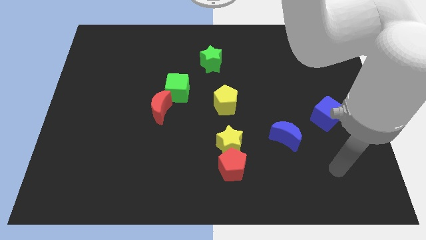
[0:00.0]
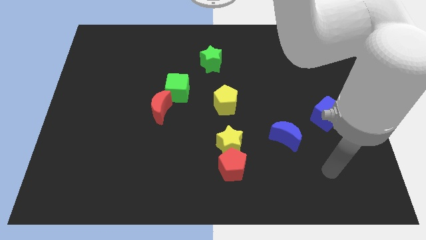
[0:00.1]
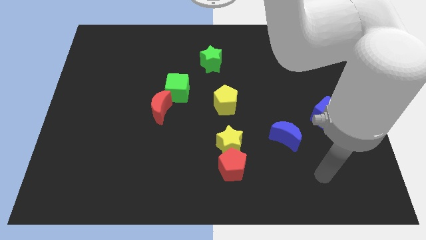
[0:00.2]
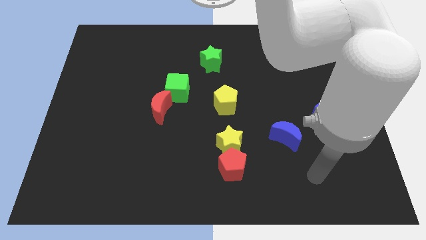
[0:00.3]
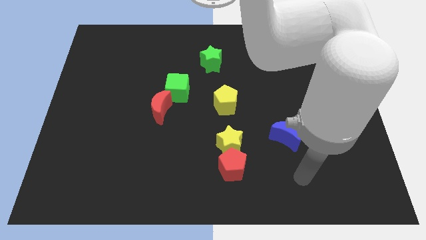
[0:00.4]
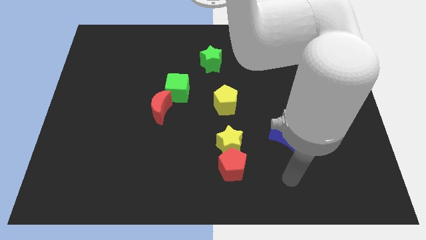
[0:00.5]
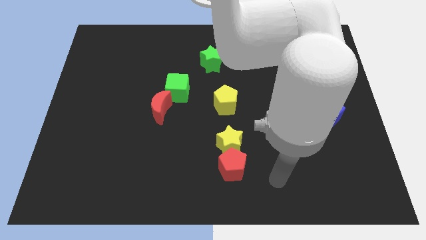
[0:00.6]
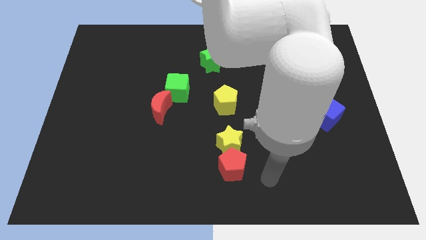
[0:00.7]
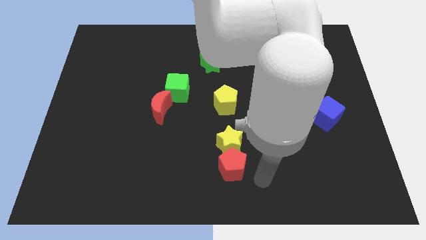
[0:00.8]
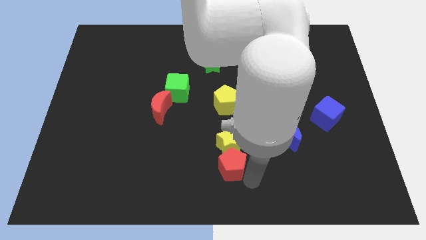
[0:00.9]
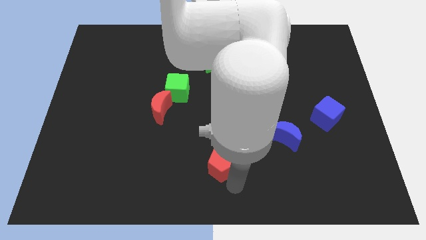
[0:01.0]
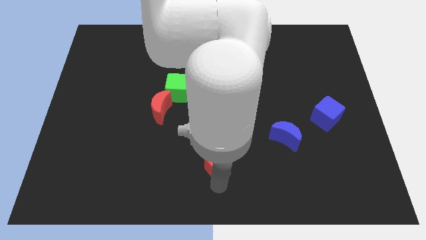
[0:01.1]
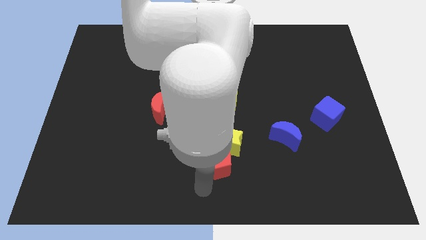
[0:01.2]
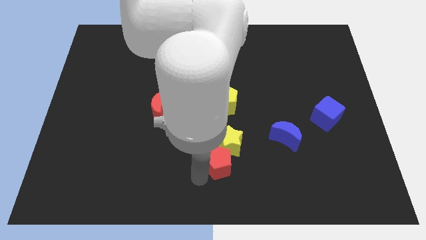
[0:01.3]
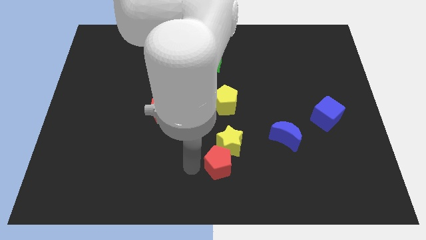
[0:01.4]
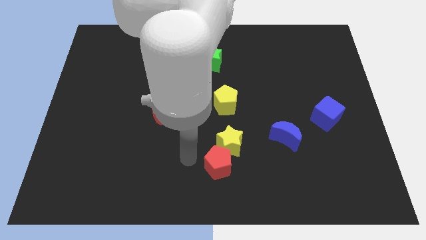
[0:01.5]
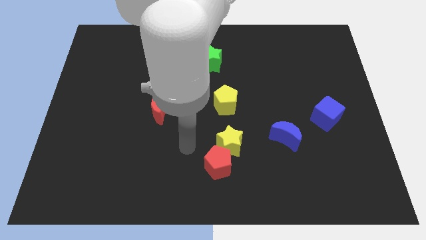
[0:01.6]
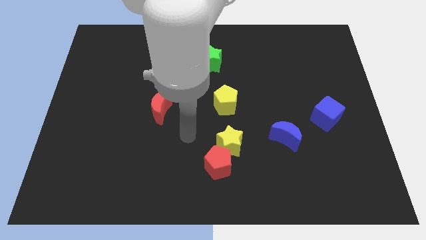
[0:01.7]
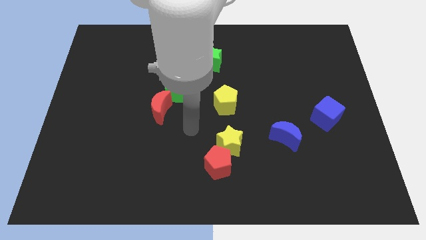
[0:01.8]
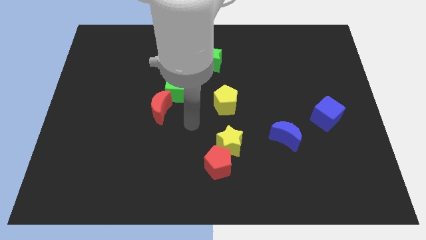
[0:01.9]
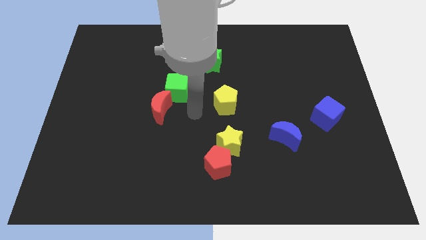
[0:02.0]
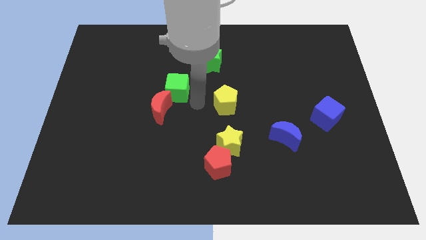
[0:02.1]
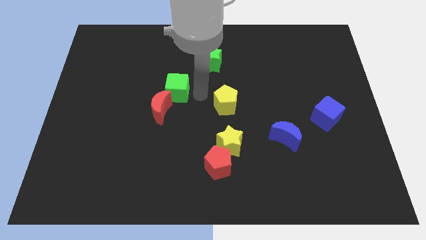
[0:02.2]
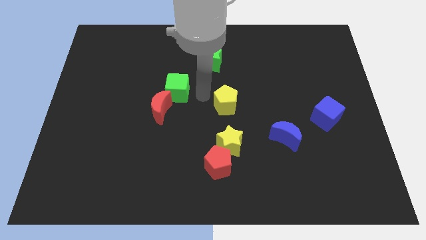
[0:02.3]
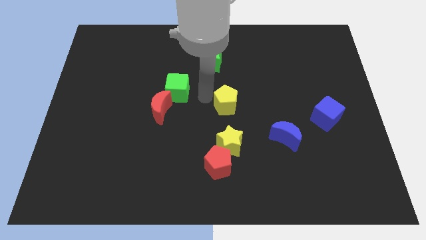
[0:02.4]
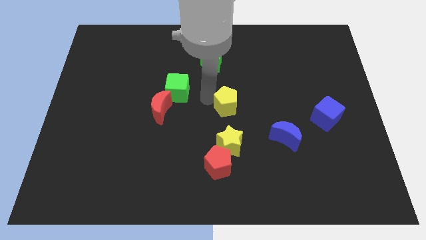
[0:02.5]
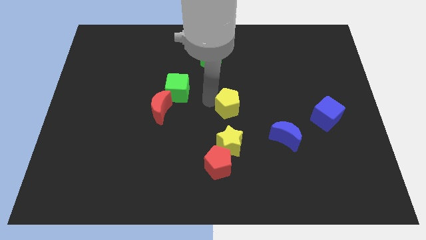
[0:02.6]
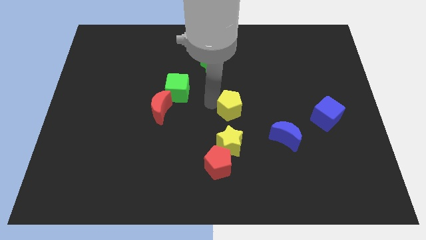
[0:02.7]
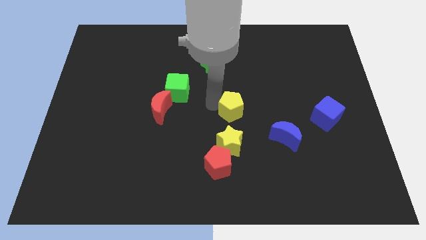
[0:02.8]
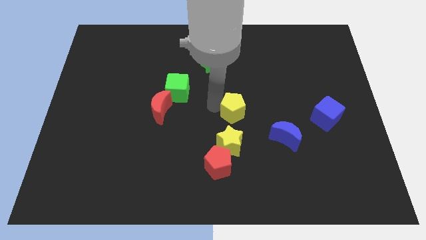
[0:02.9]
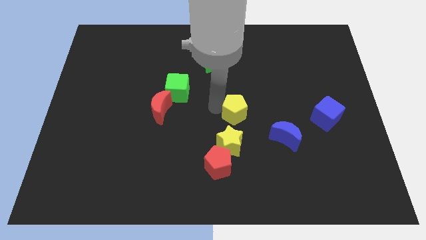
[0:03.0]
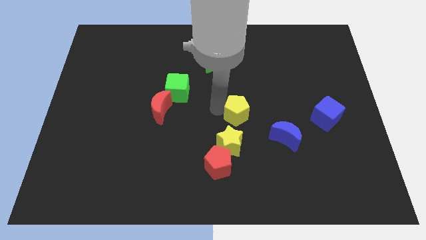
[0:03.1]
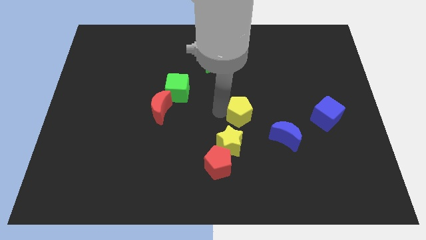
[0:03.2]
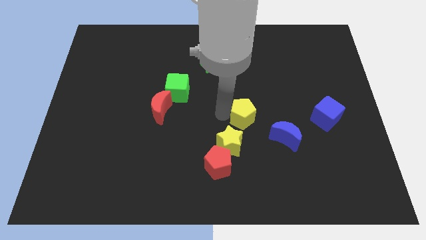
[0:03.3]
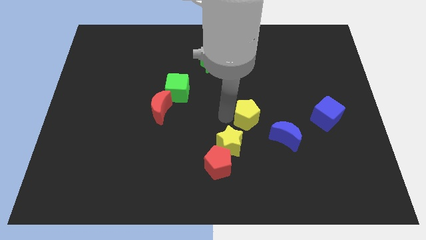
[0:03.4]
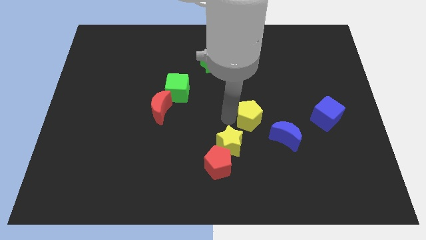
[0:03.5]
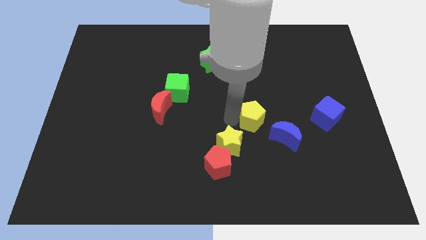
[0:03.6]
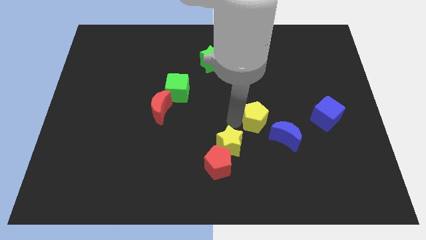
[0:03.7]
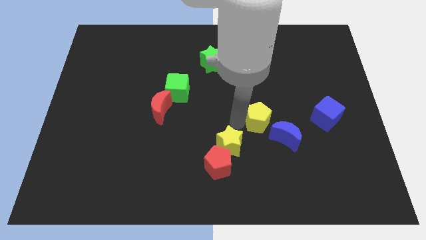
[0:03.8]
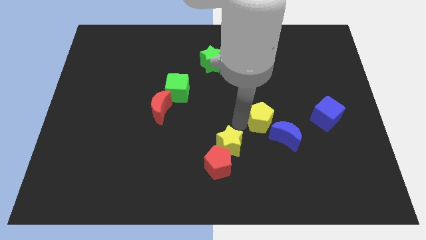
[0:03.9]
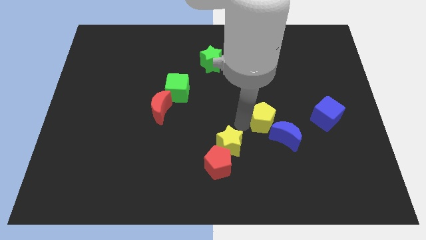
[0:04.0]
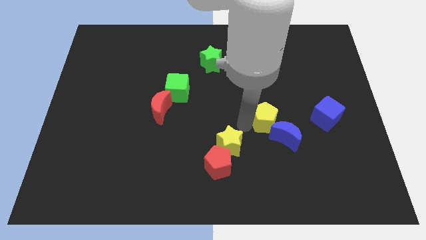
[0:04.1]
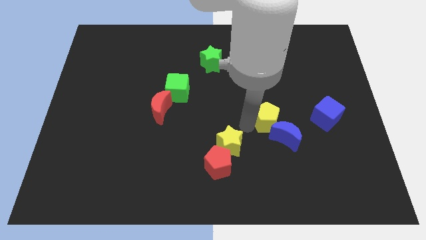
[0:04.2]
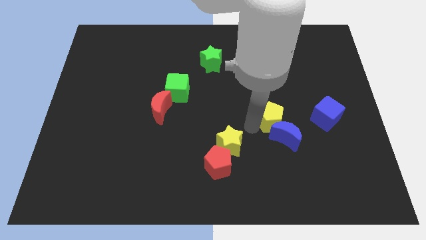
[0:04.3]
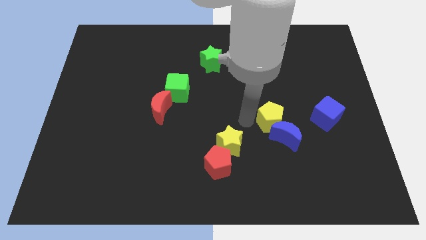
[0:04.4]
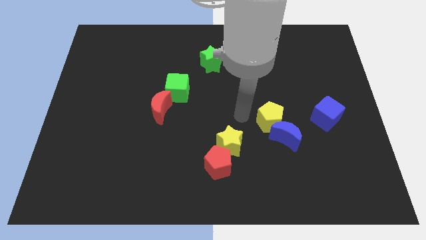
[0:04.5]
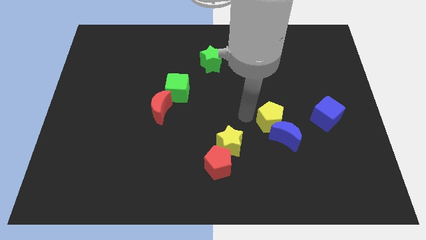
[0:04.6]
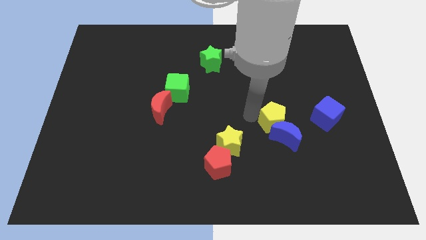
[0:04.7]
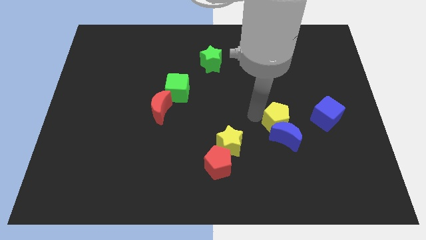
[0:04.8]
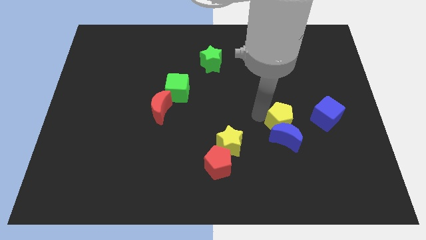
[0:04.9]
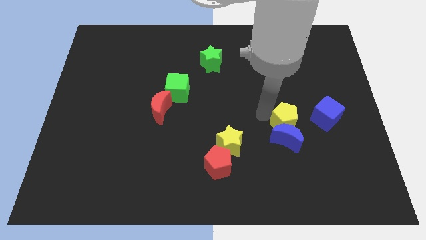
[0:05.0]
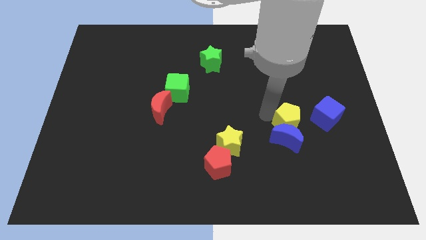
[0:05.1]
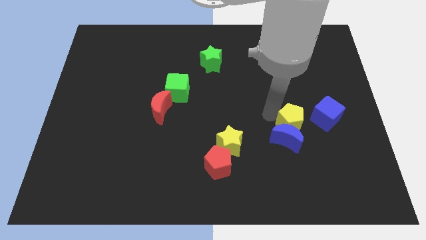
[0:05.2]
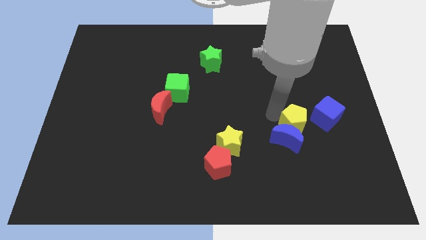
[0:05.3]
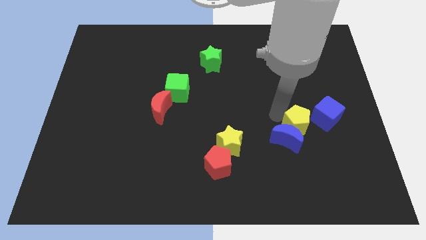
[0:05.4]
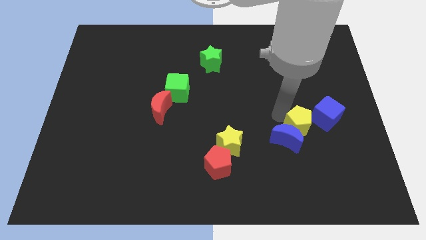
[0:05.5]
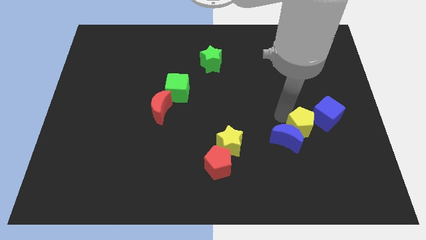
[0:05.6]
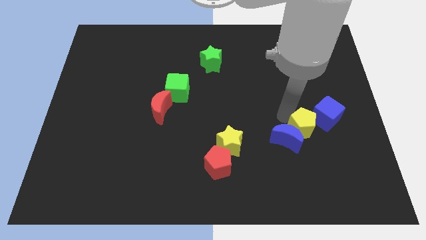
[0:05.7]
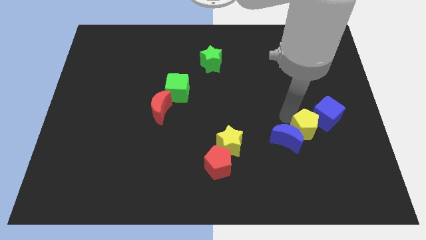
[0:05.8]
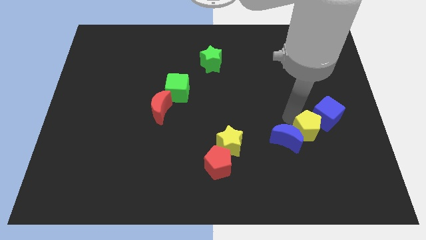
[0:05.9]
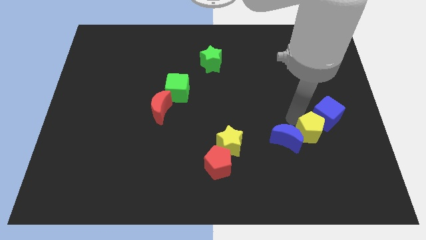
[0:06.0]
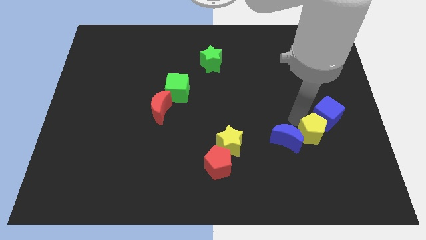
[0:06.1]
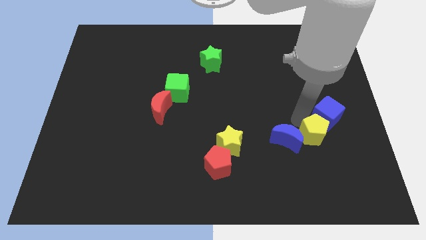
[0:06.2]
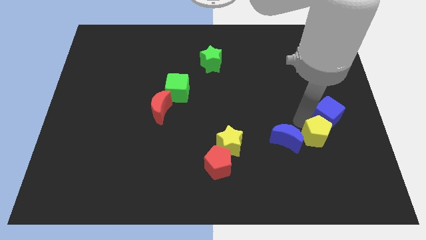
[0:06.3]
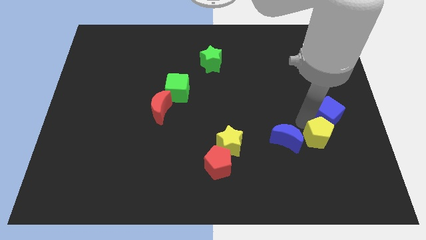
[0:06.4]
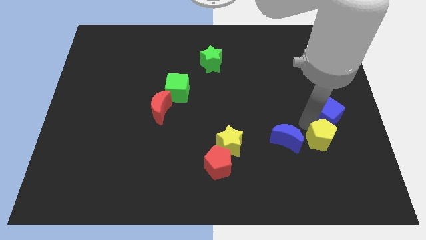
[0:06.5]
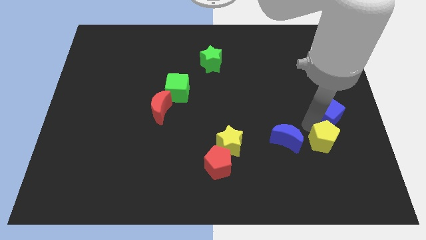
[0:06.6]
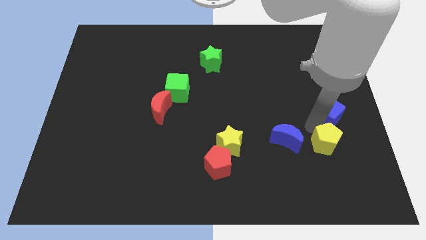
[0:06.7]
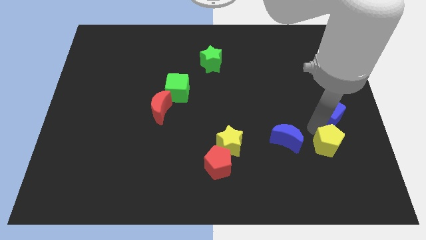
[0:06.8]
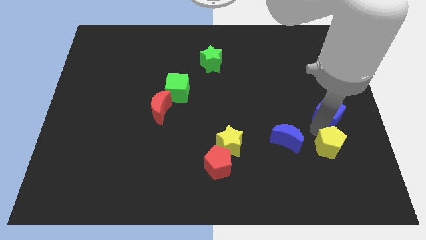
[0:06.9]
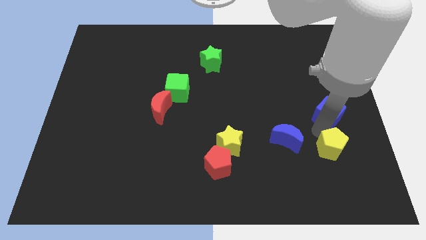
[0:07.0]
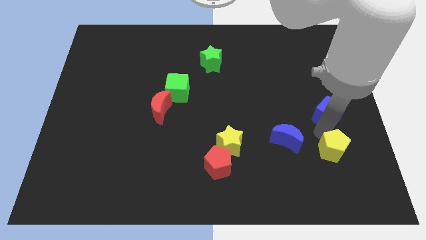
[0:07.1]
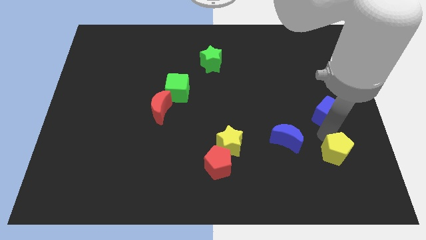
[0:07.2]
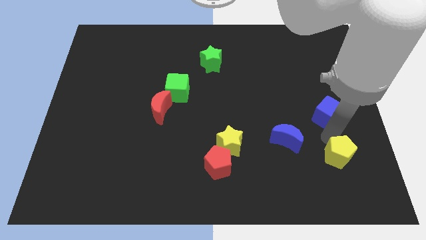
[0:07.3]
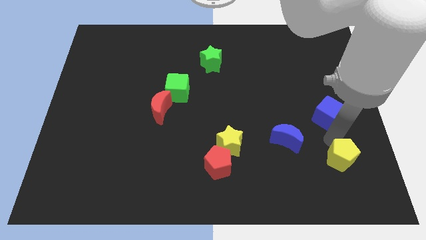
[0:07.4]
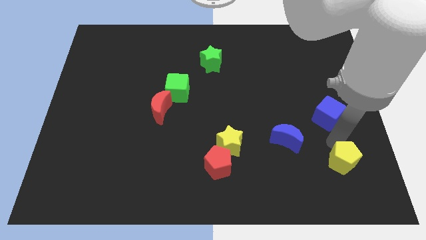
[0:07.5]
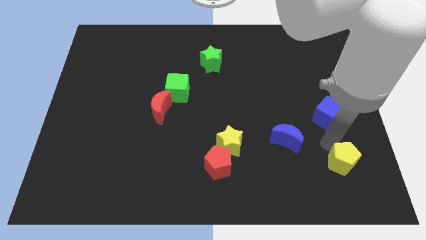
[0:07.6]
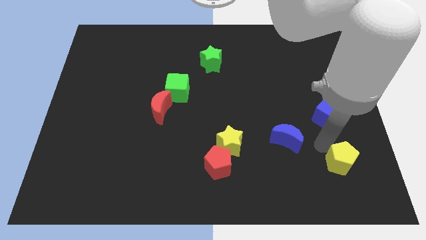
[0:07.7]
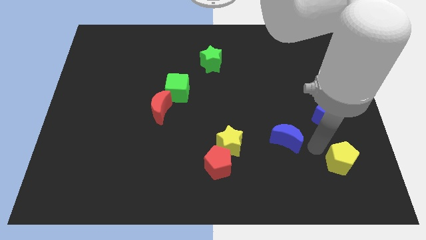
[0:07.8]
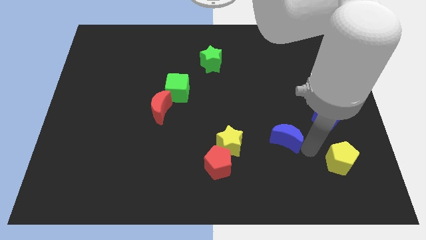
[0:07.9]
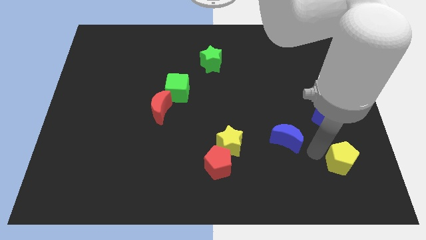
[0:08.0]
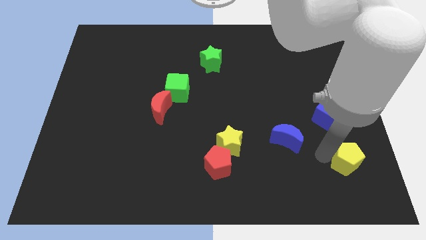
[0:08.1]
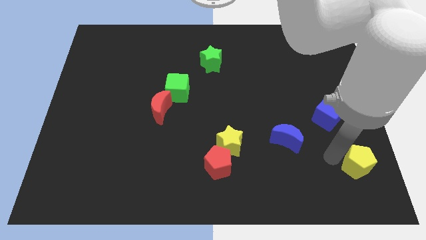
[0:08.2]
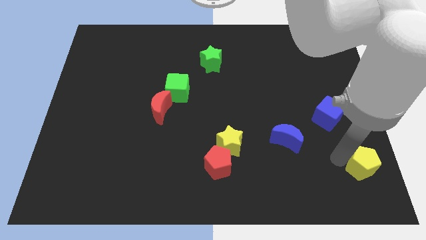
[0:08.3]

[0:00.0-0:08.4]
push the yellow pentagon to the bottom right corner
